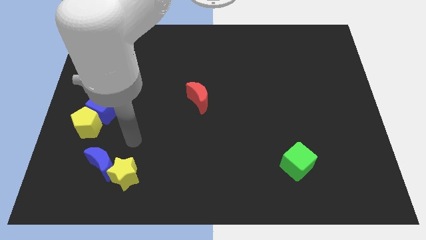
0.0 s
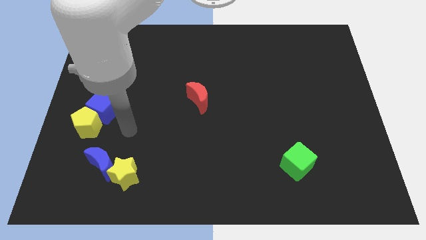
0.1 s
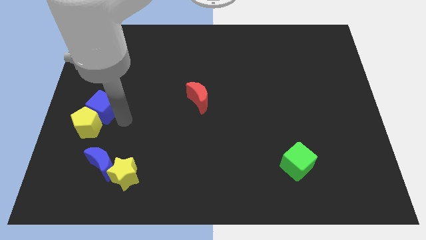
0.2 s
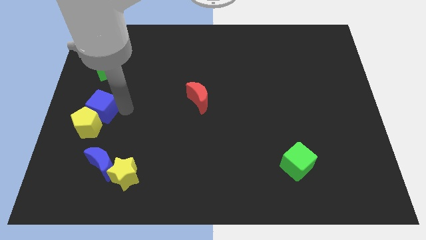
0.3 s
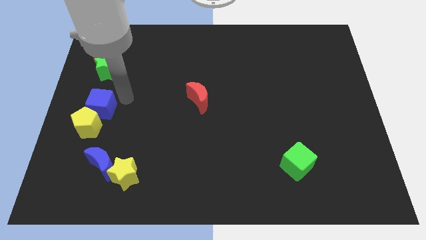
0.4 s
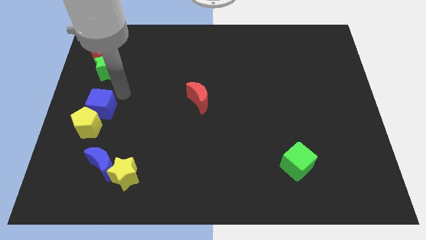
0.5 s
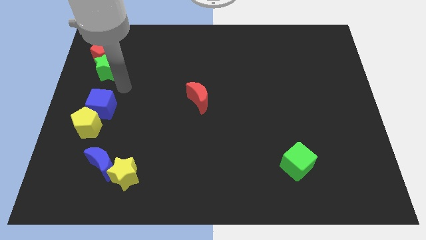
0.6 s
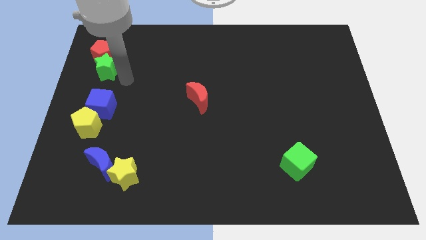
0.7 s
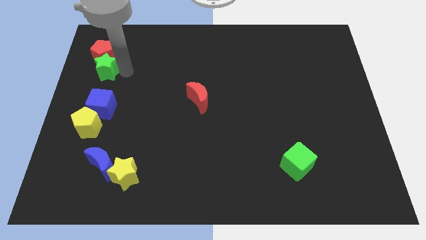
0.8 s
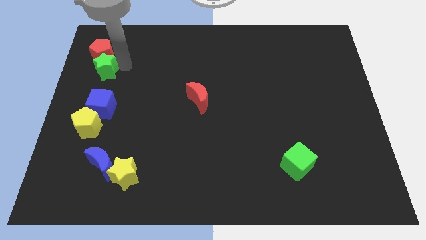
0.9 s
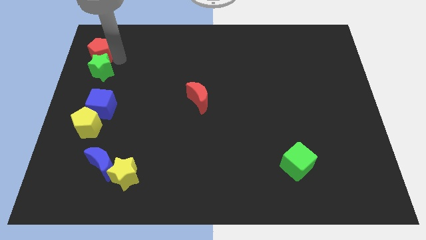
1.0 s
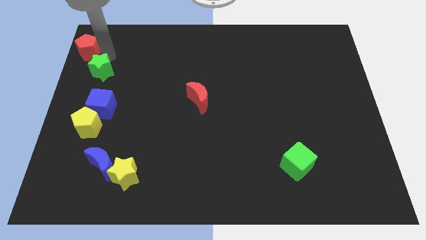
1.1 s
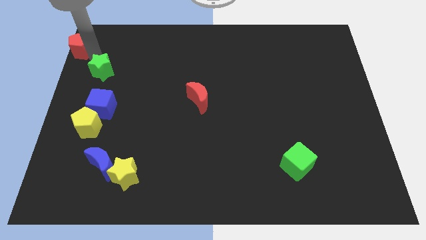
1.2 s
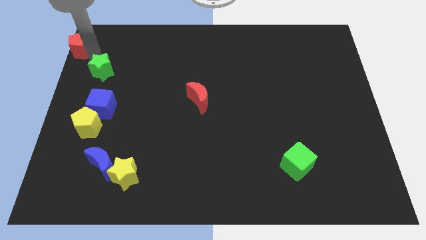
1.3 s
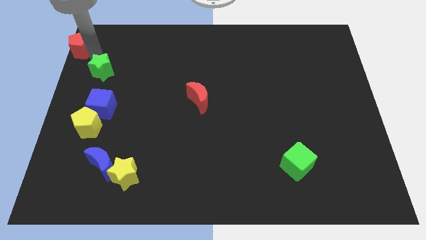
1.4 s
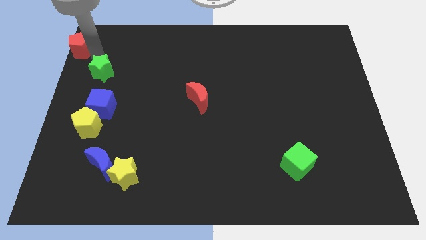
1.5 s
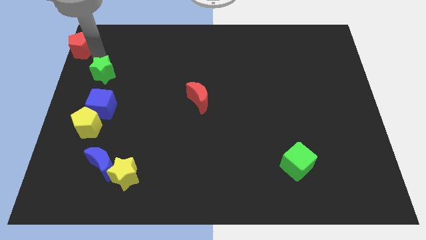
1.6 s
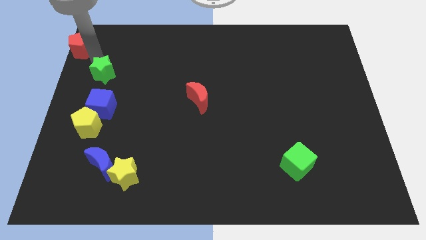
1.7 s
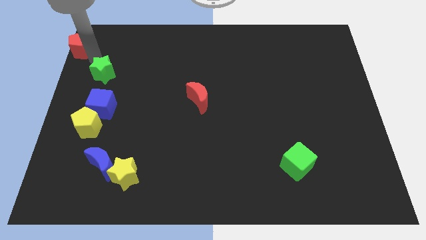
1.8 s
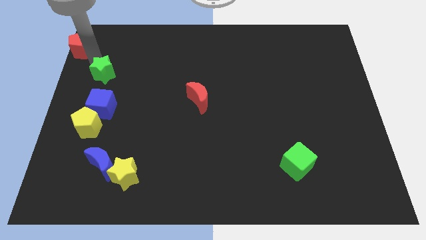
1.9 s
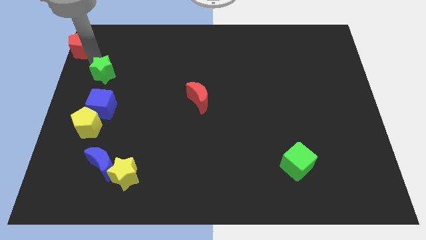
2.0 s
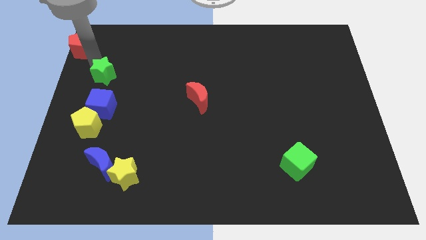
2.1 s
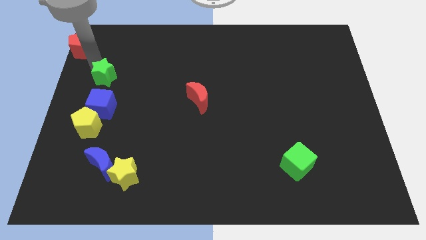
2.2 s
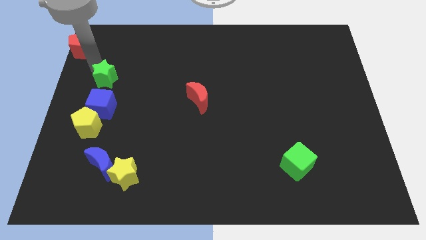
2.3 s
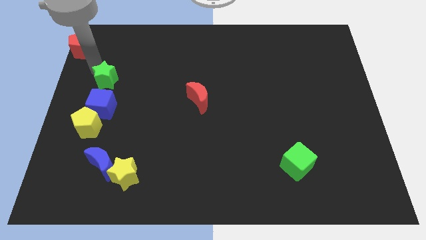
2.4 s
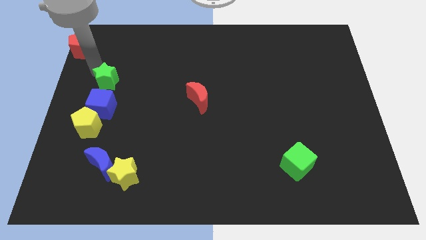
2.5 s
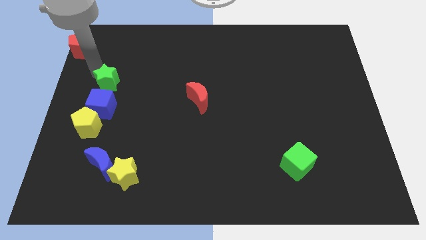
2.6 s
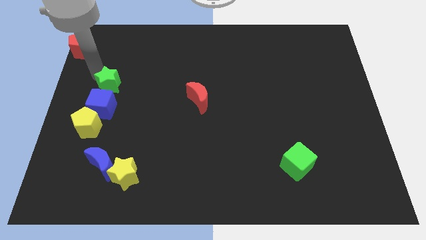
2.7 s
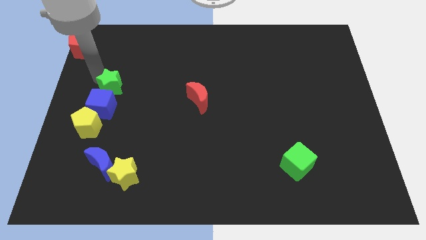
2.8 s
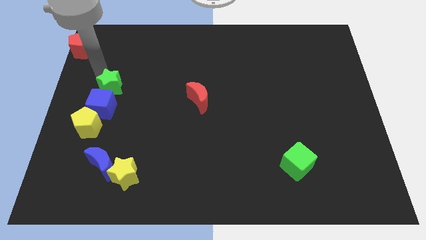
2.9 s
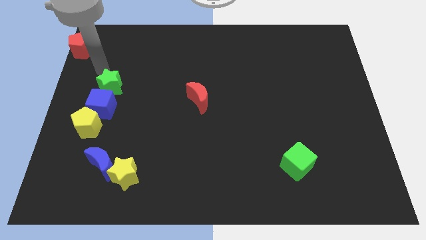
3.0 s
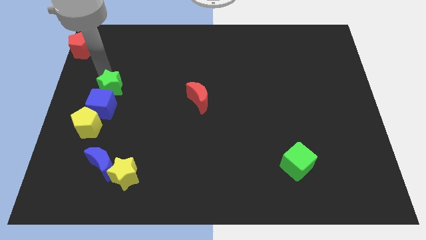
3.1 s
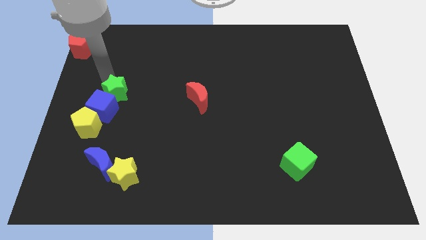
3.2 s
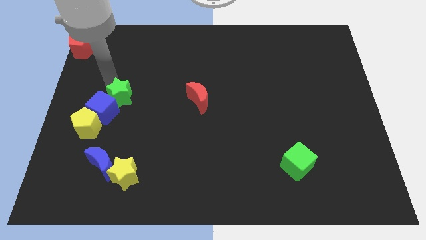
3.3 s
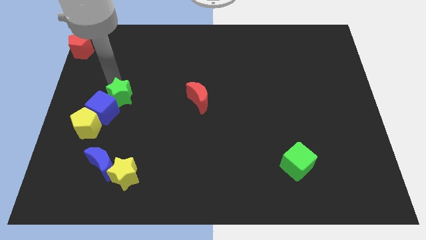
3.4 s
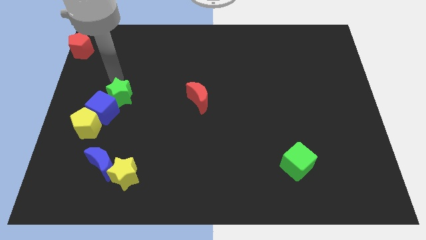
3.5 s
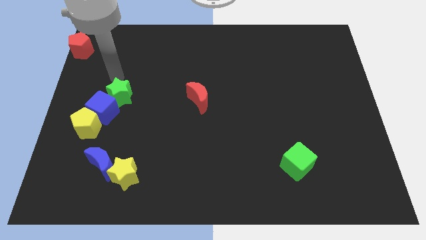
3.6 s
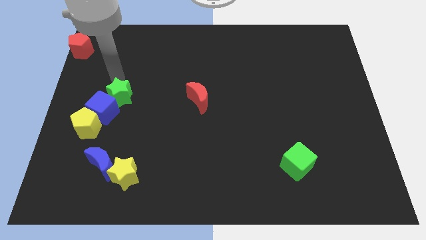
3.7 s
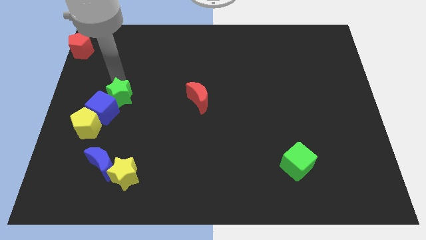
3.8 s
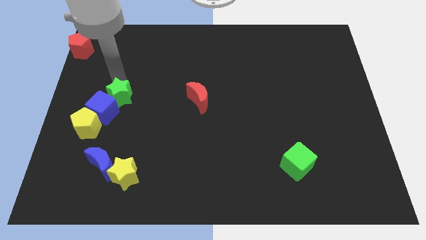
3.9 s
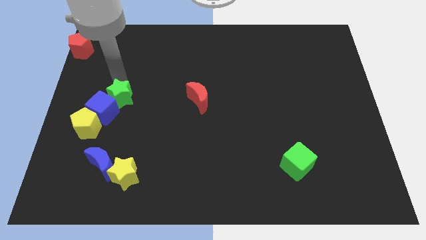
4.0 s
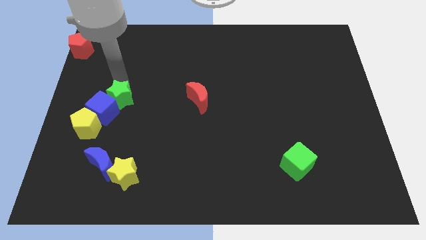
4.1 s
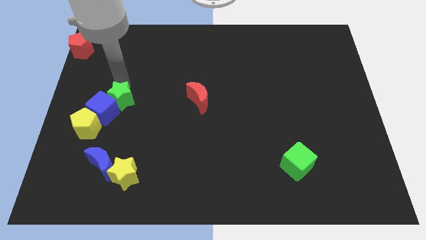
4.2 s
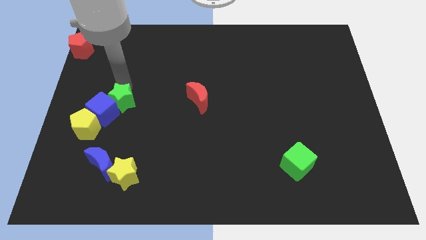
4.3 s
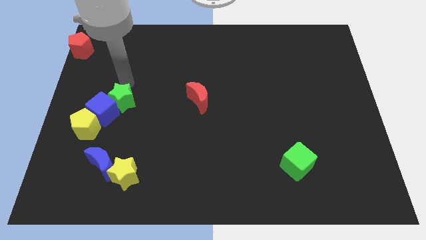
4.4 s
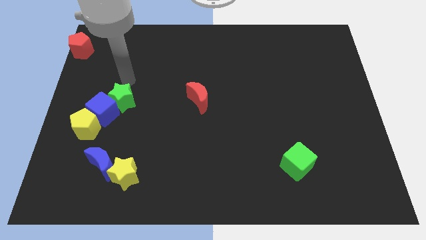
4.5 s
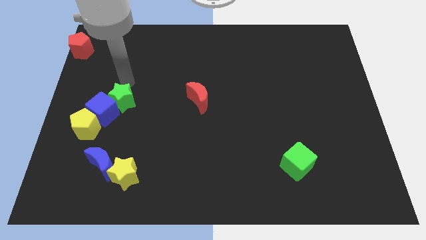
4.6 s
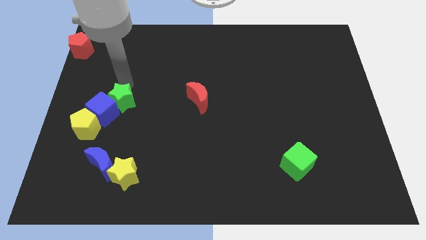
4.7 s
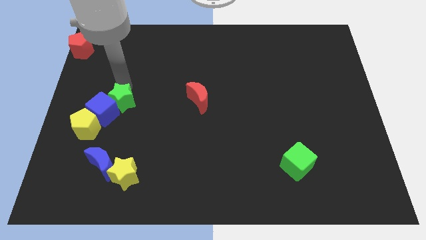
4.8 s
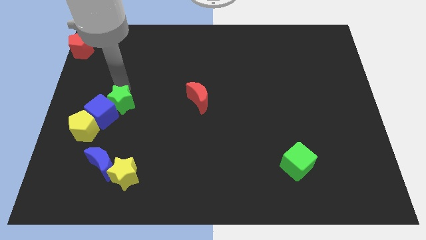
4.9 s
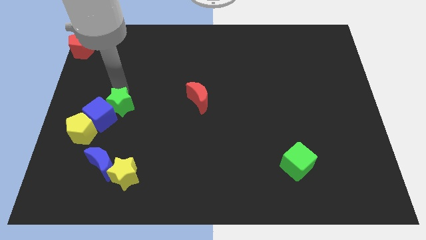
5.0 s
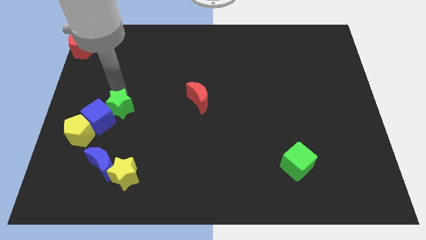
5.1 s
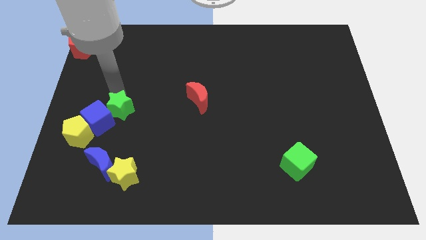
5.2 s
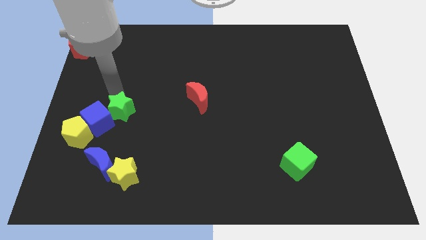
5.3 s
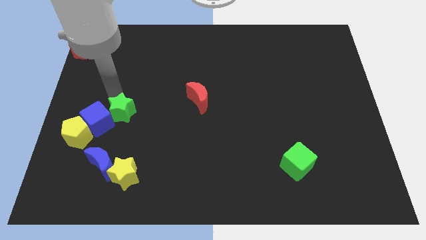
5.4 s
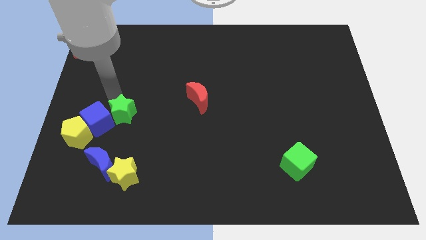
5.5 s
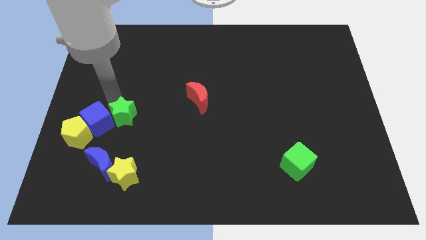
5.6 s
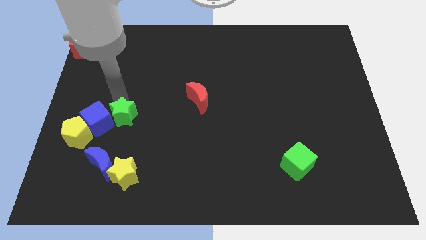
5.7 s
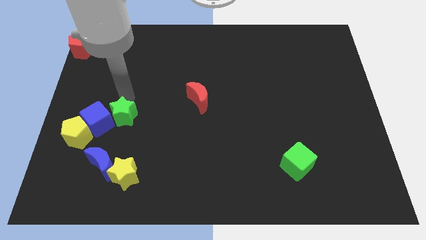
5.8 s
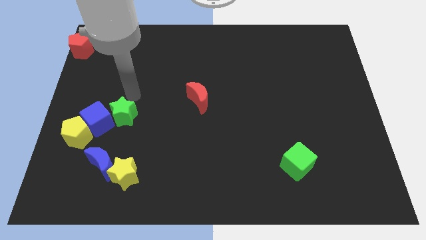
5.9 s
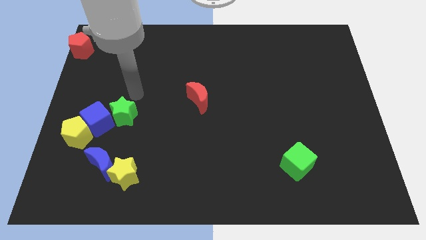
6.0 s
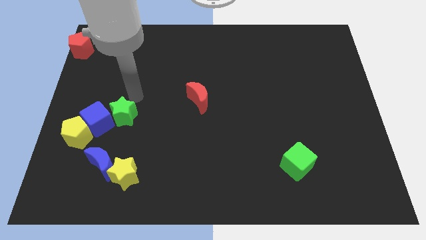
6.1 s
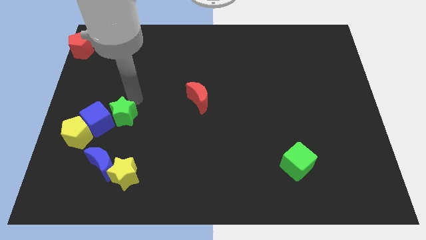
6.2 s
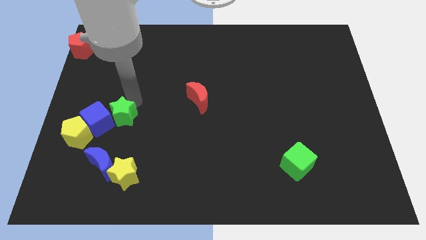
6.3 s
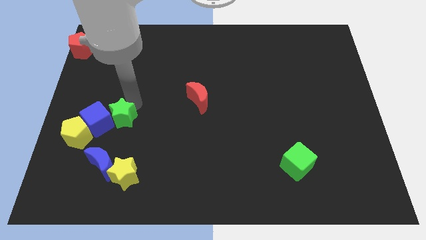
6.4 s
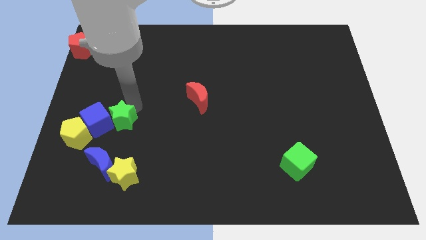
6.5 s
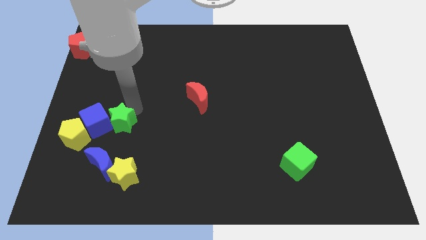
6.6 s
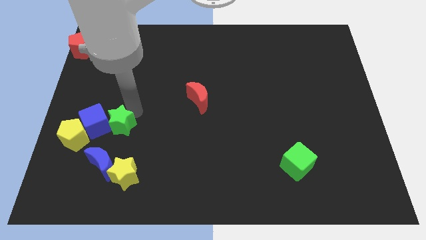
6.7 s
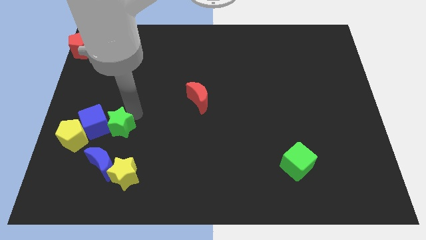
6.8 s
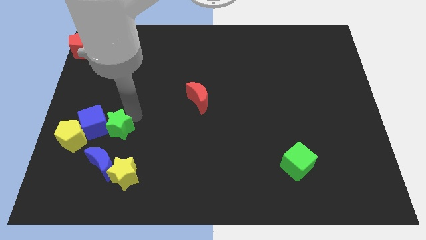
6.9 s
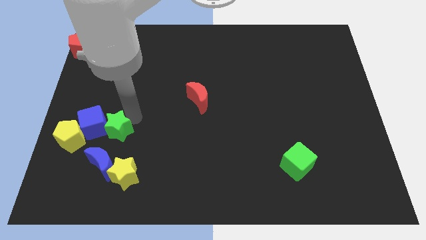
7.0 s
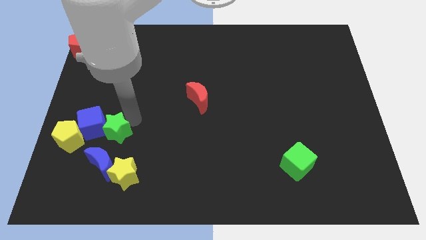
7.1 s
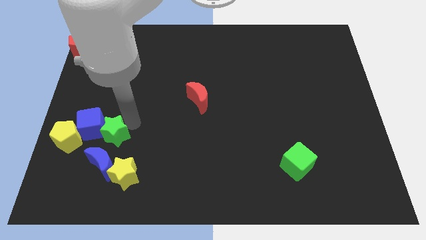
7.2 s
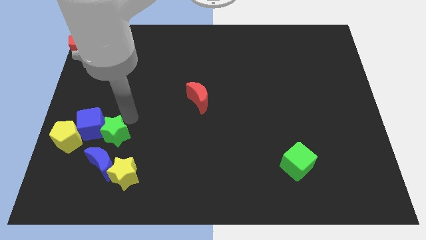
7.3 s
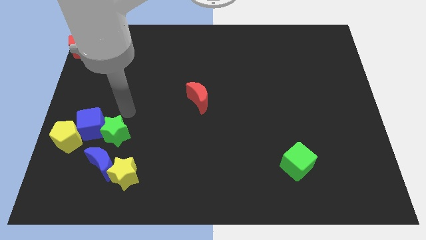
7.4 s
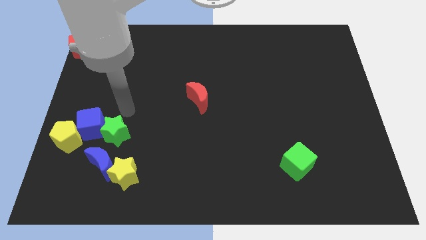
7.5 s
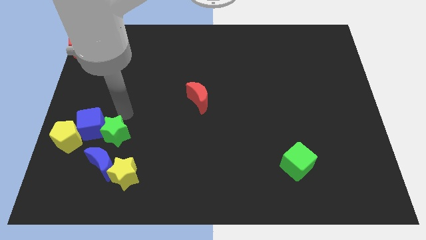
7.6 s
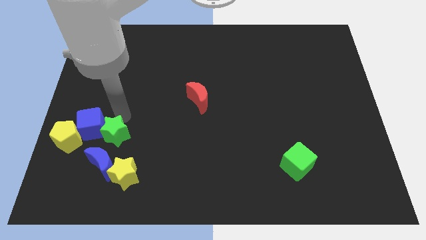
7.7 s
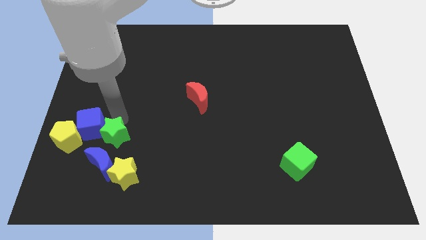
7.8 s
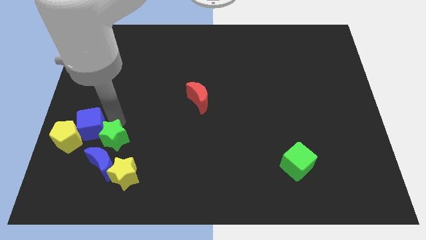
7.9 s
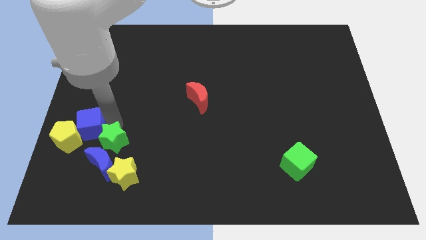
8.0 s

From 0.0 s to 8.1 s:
move the green star towards the blue moon
